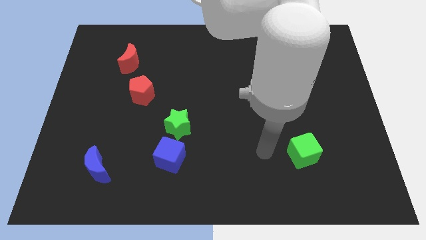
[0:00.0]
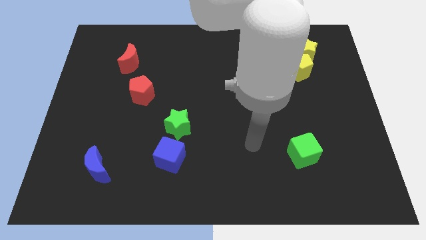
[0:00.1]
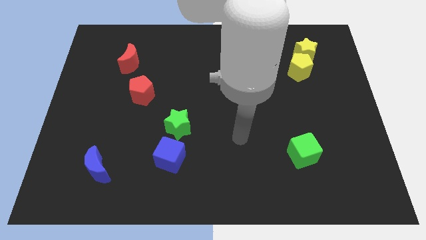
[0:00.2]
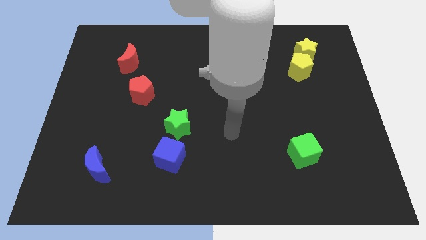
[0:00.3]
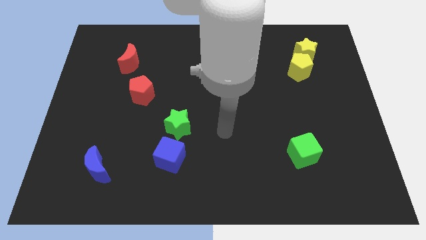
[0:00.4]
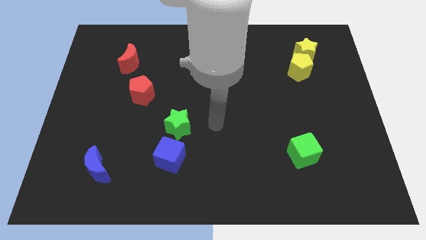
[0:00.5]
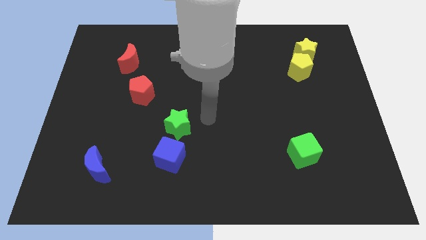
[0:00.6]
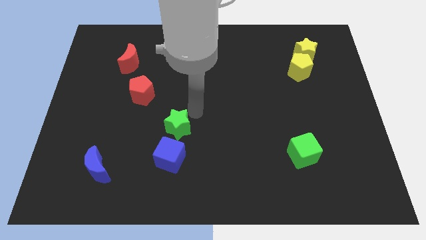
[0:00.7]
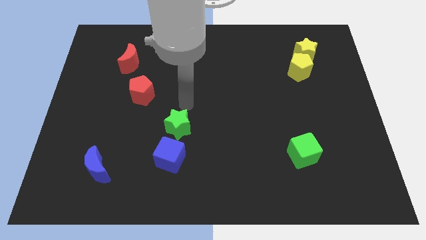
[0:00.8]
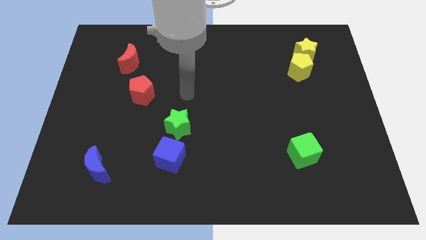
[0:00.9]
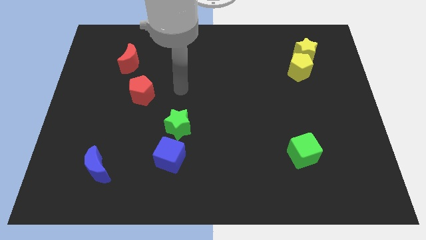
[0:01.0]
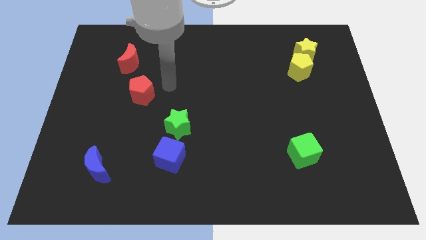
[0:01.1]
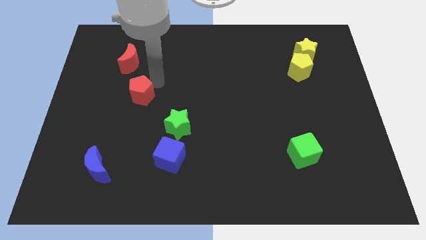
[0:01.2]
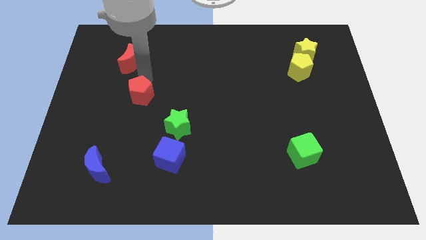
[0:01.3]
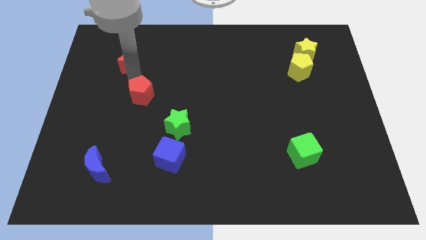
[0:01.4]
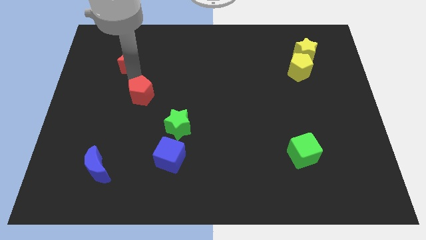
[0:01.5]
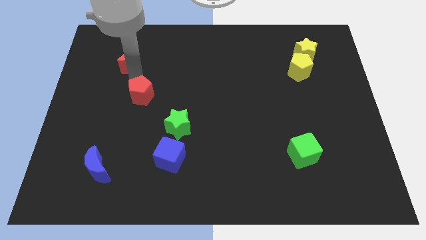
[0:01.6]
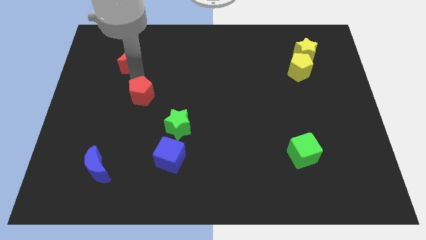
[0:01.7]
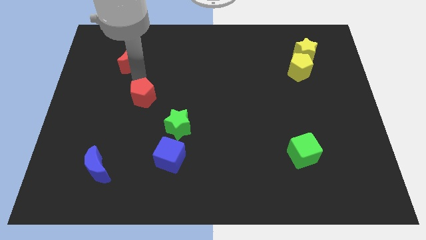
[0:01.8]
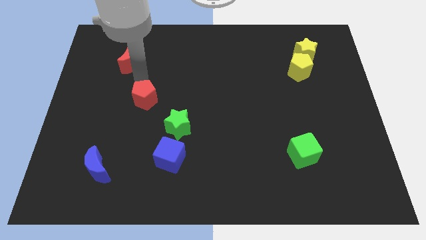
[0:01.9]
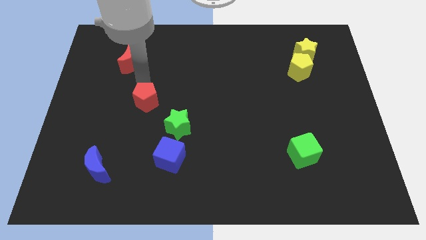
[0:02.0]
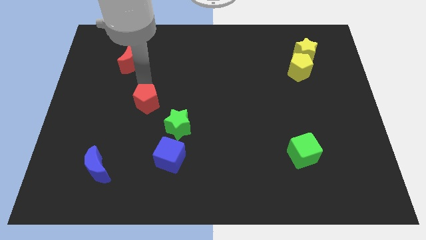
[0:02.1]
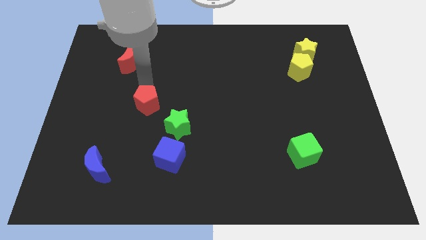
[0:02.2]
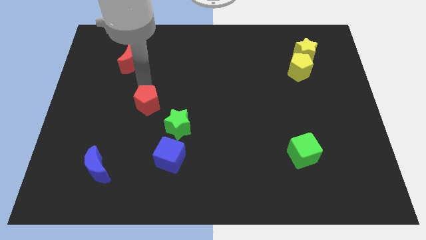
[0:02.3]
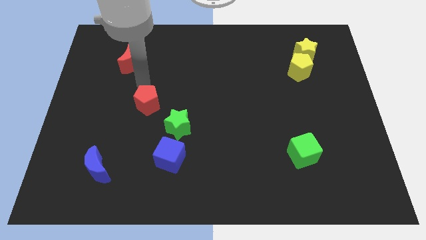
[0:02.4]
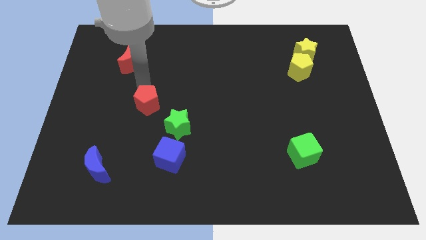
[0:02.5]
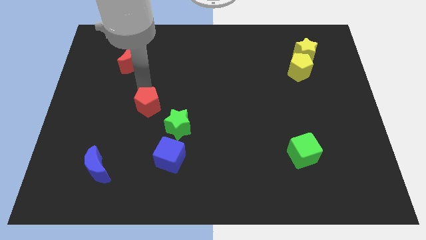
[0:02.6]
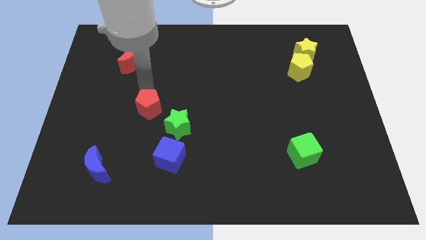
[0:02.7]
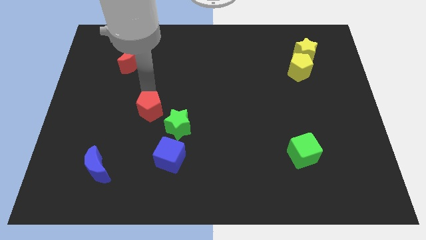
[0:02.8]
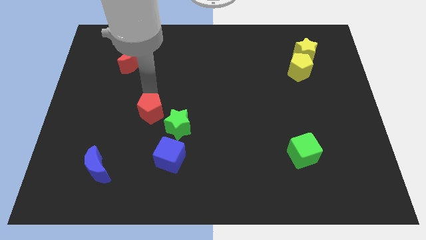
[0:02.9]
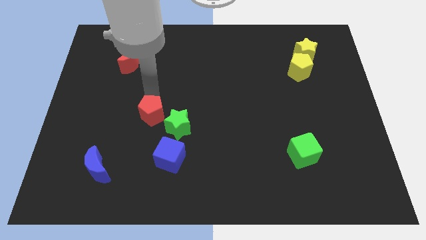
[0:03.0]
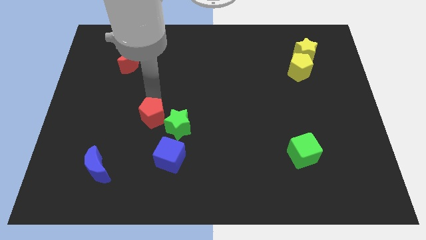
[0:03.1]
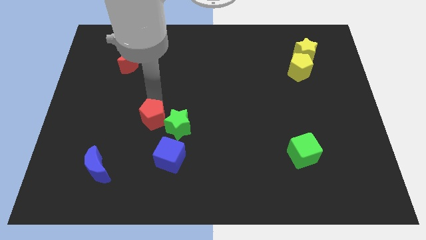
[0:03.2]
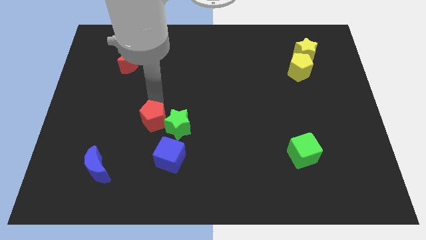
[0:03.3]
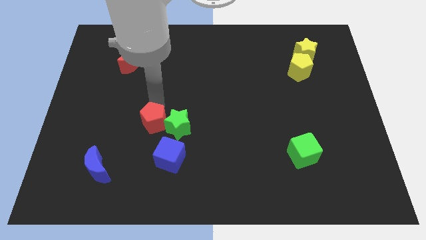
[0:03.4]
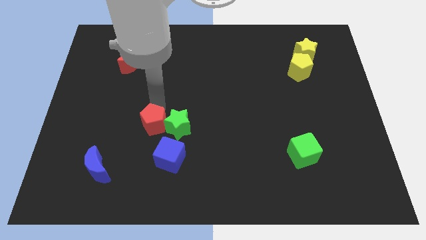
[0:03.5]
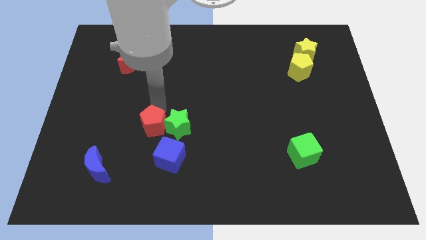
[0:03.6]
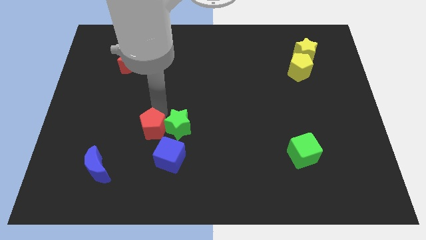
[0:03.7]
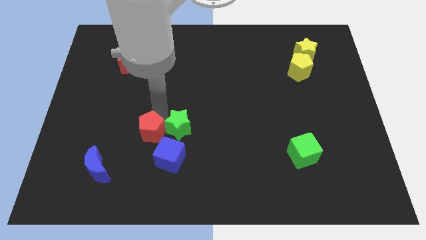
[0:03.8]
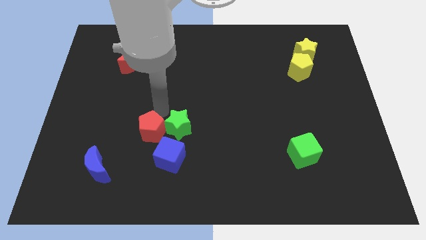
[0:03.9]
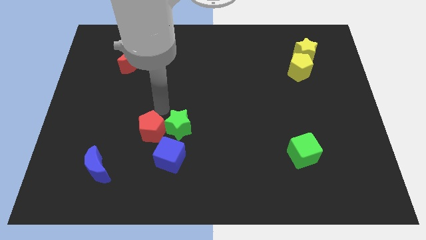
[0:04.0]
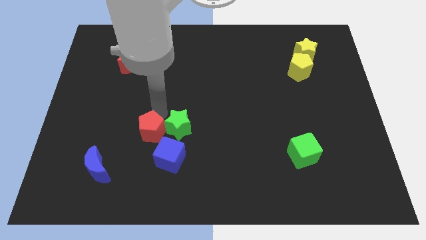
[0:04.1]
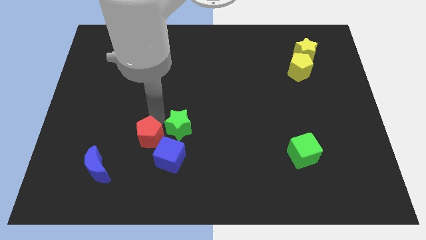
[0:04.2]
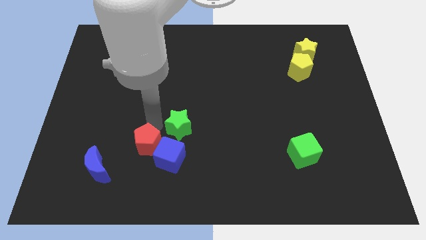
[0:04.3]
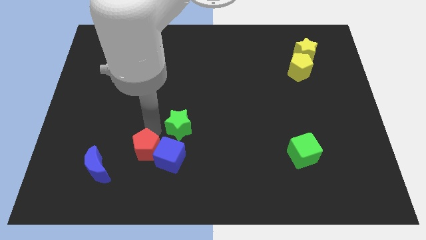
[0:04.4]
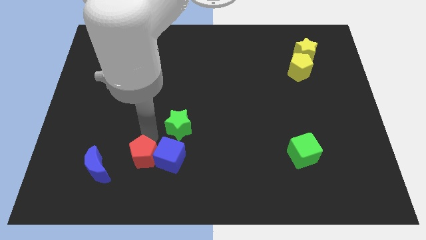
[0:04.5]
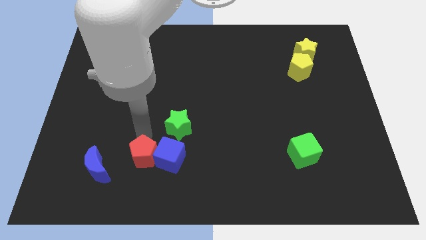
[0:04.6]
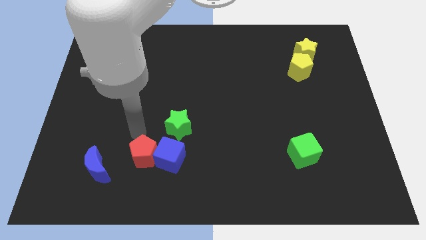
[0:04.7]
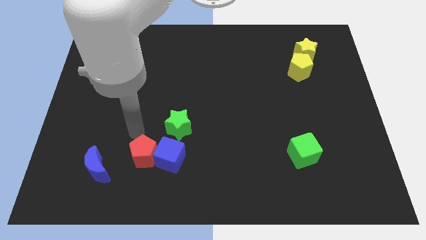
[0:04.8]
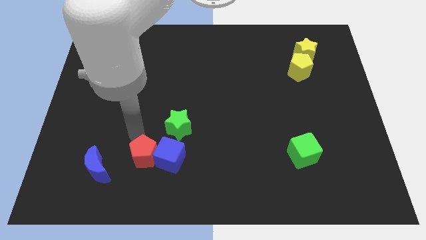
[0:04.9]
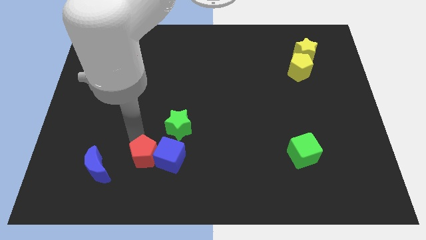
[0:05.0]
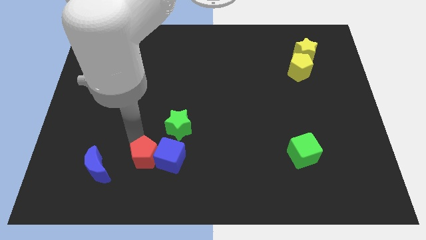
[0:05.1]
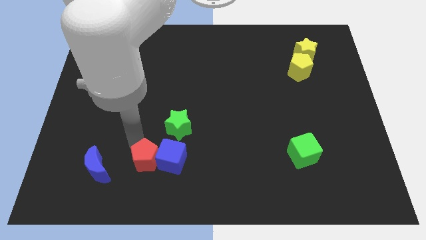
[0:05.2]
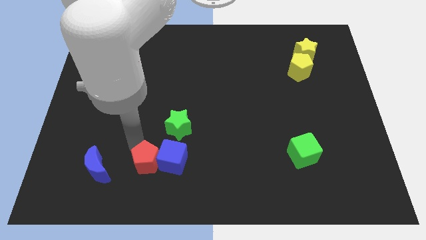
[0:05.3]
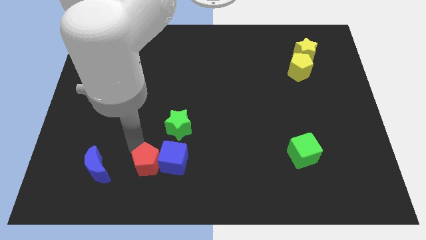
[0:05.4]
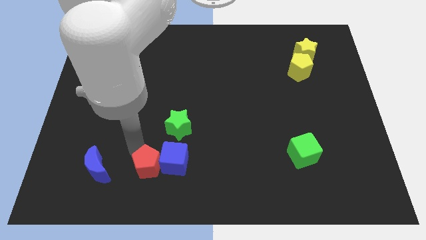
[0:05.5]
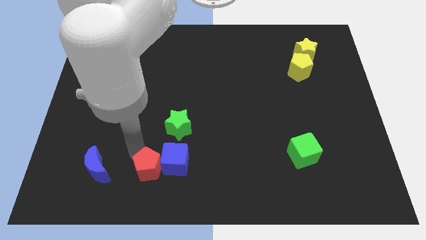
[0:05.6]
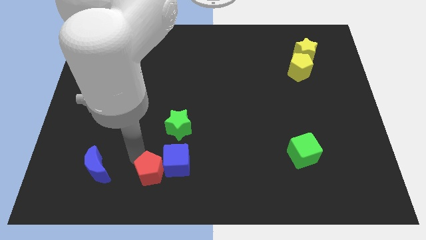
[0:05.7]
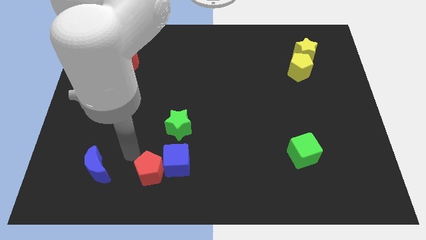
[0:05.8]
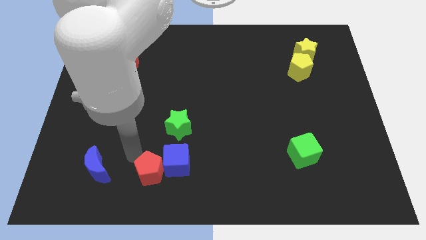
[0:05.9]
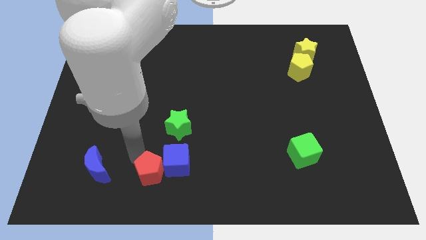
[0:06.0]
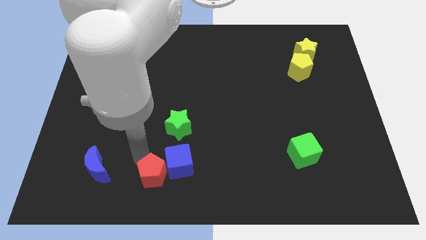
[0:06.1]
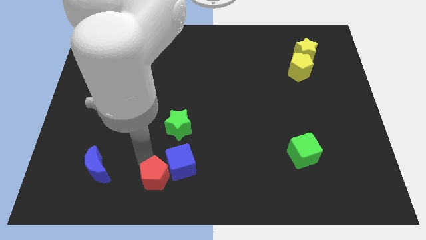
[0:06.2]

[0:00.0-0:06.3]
move the red pentagon to the bottom

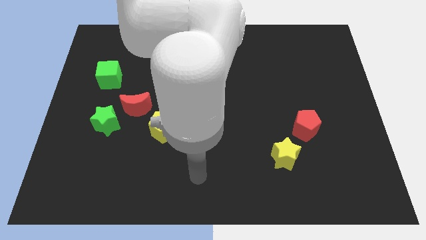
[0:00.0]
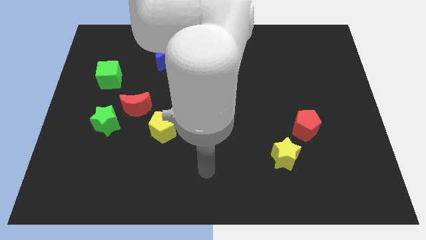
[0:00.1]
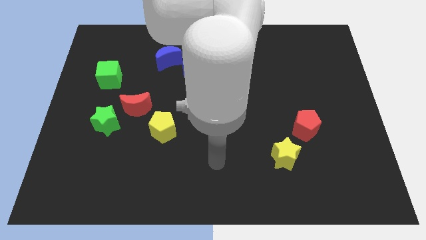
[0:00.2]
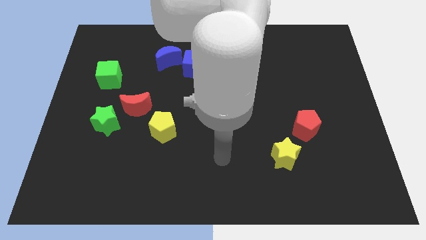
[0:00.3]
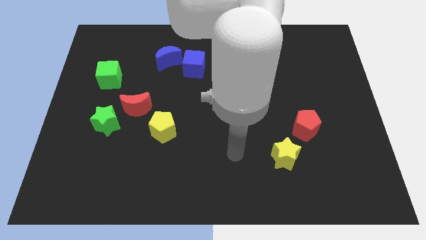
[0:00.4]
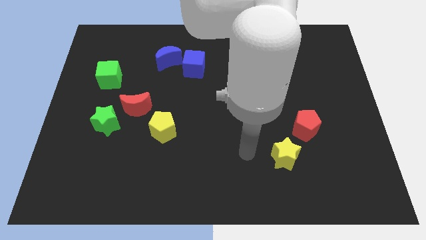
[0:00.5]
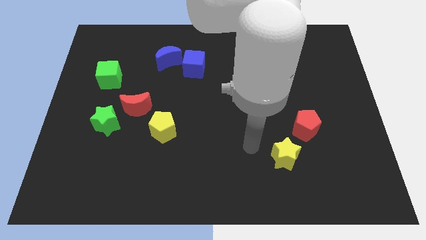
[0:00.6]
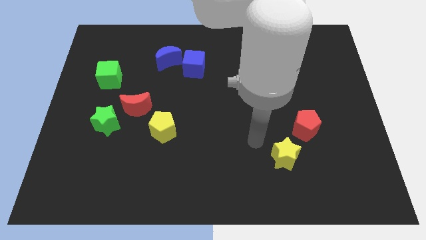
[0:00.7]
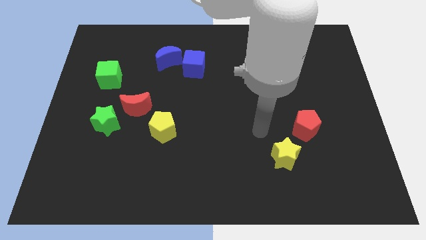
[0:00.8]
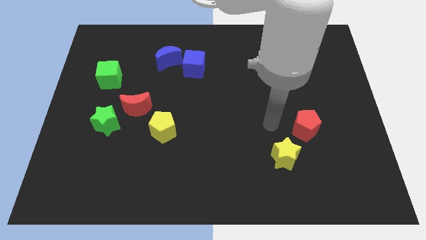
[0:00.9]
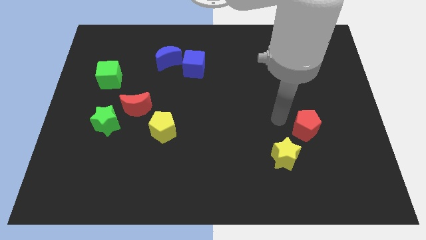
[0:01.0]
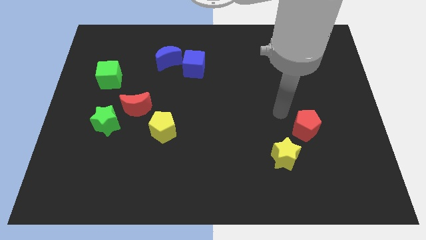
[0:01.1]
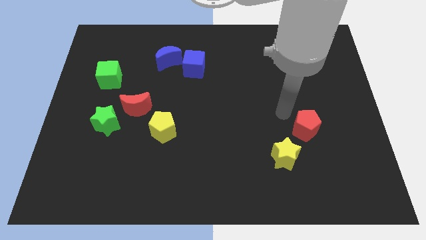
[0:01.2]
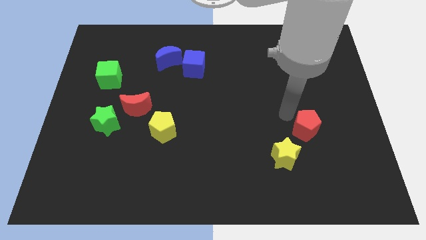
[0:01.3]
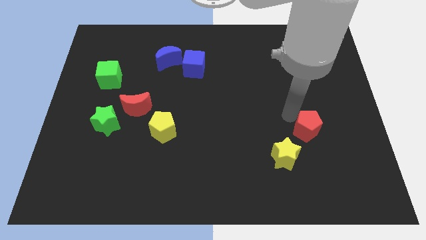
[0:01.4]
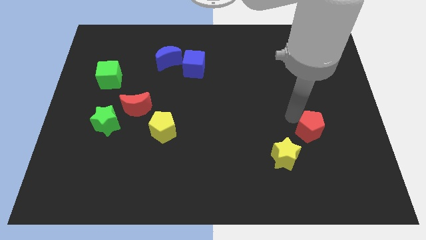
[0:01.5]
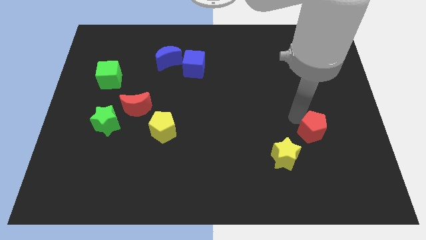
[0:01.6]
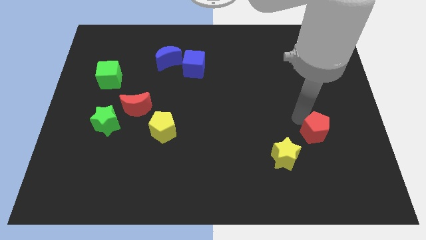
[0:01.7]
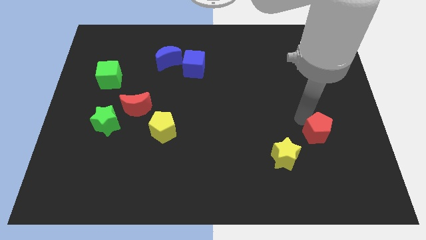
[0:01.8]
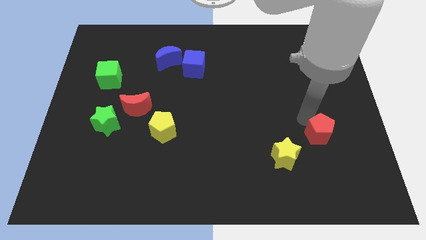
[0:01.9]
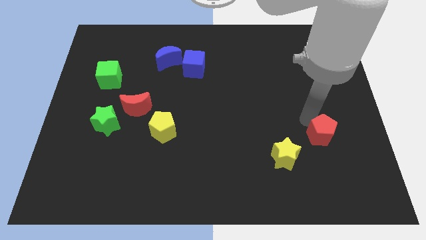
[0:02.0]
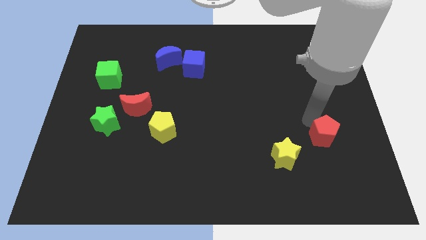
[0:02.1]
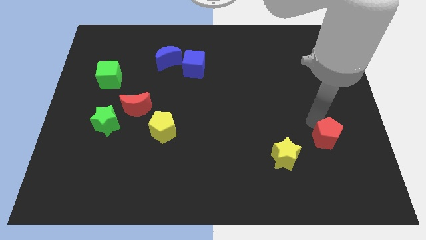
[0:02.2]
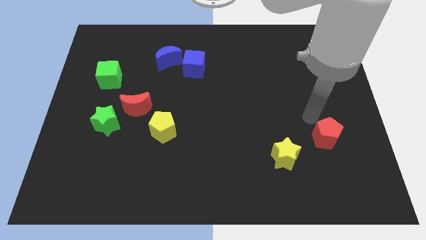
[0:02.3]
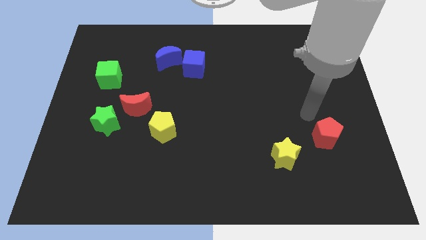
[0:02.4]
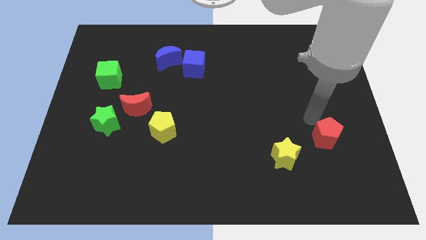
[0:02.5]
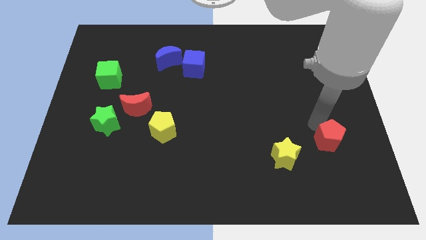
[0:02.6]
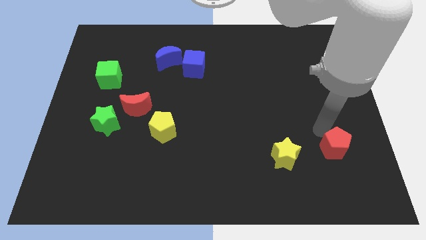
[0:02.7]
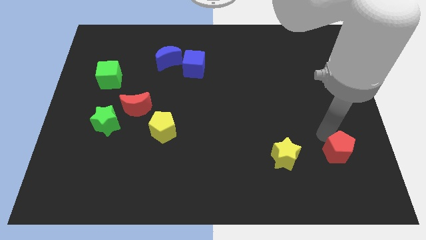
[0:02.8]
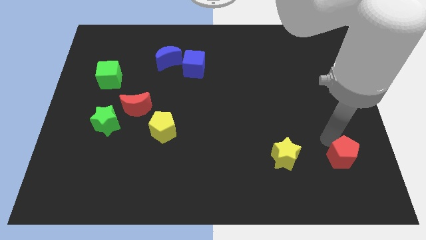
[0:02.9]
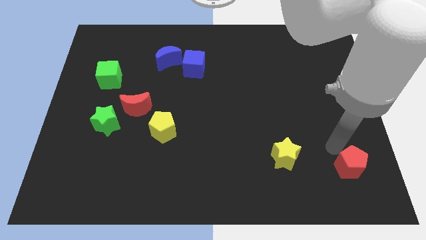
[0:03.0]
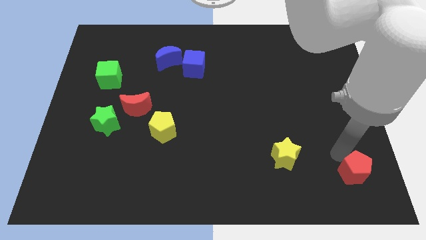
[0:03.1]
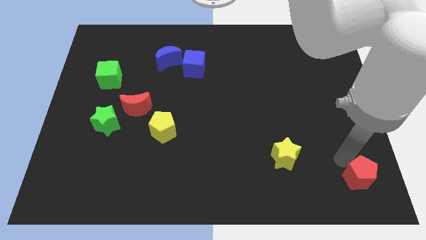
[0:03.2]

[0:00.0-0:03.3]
push the red pentagon to the bottom right
